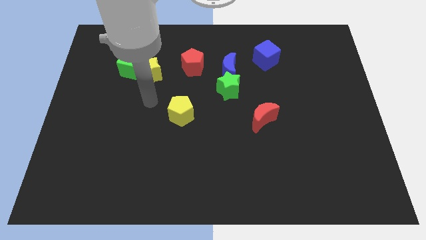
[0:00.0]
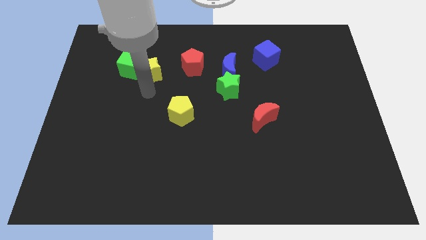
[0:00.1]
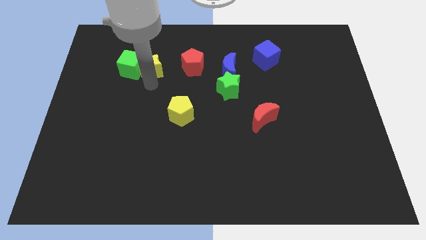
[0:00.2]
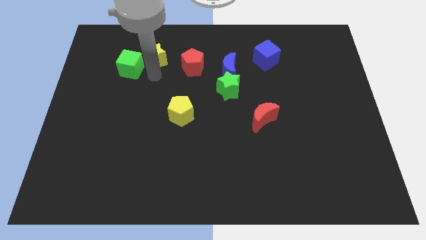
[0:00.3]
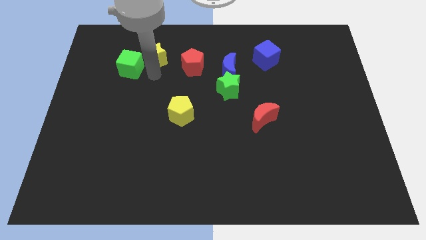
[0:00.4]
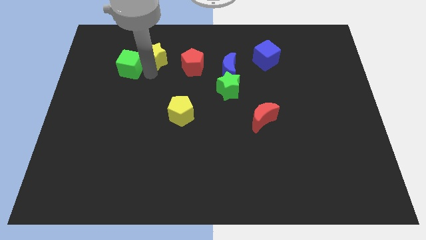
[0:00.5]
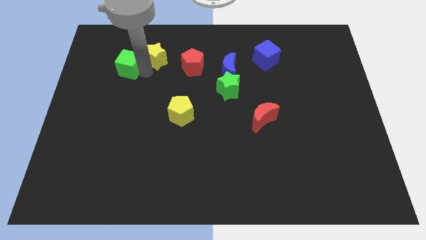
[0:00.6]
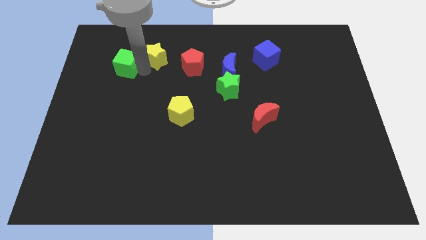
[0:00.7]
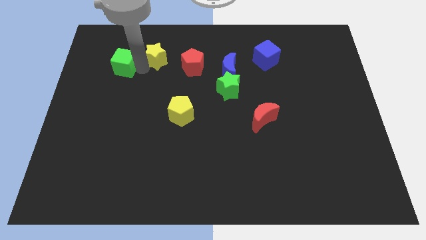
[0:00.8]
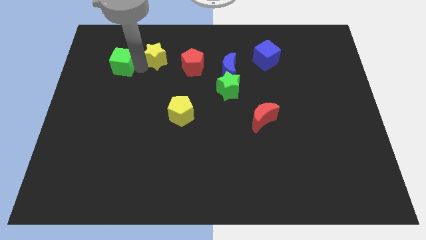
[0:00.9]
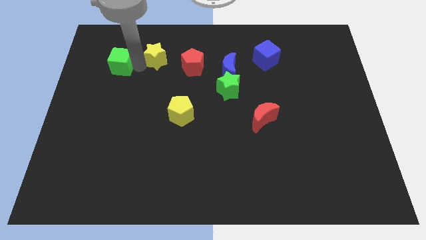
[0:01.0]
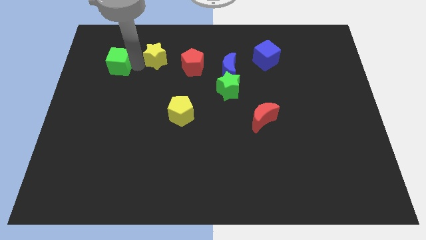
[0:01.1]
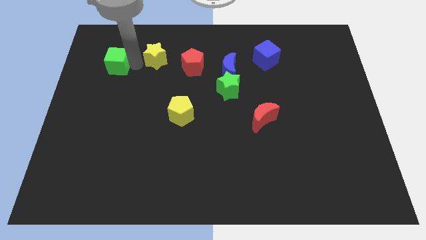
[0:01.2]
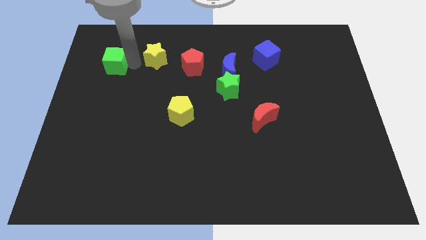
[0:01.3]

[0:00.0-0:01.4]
separate the green cube from the yellow star

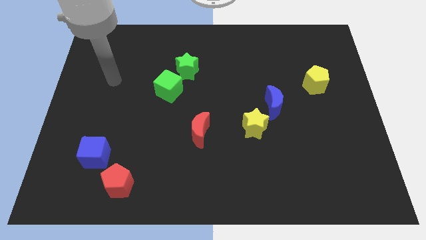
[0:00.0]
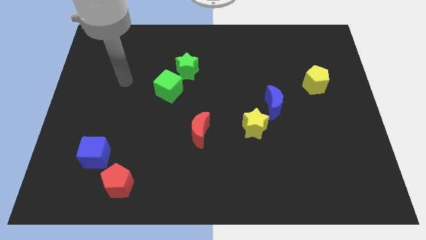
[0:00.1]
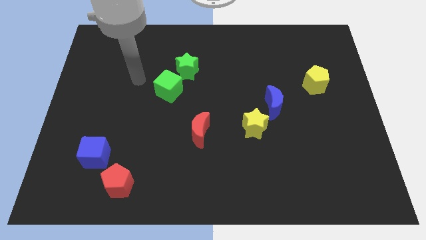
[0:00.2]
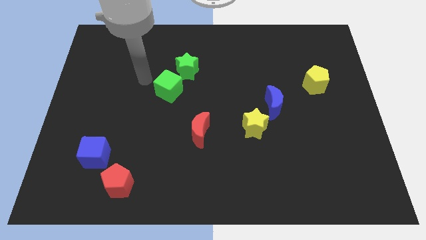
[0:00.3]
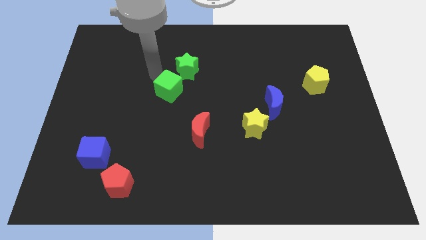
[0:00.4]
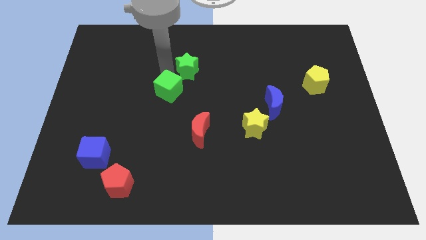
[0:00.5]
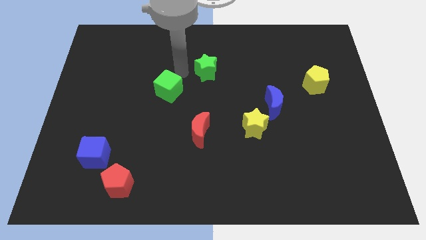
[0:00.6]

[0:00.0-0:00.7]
pull the green cube apart from the green star

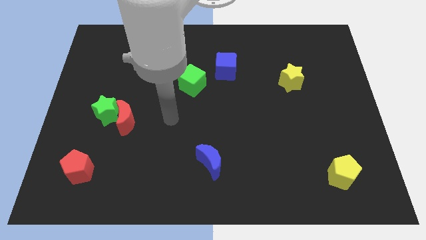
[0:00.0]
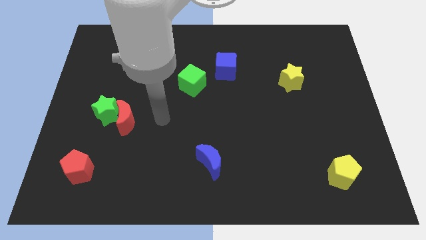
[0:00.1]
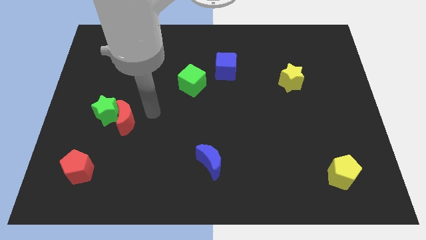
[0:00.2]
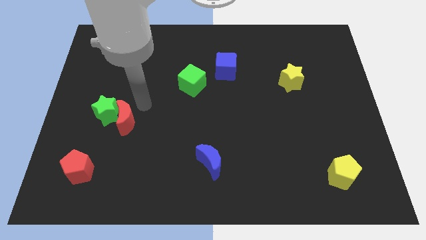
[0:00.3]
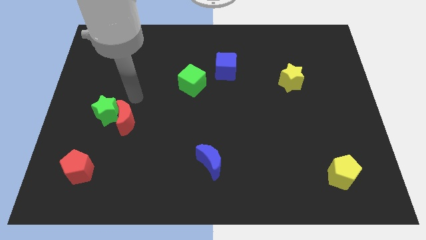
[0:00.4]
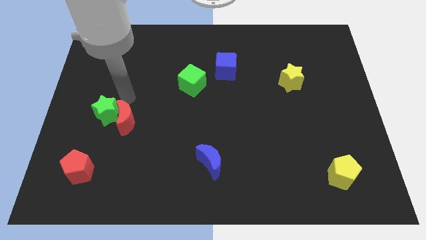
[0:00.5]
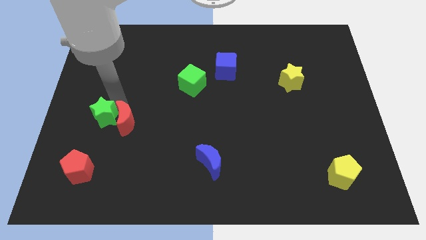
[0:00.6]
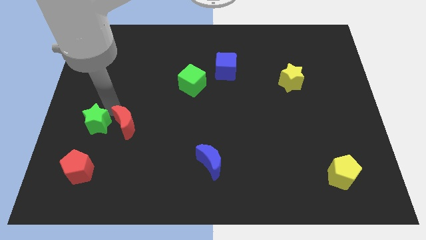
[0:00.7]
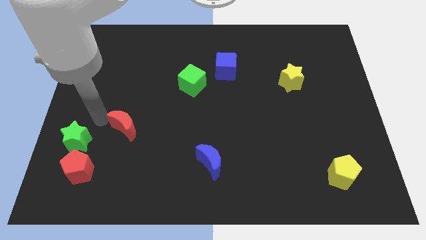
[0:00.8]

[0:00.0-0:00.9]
move the red moon away from the green star

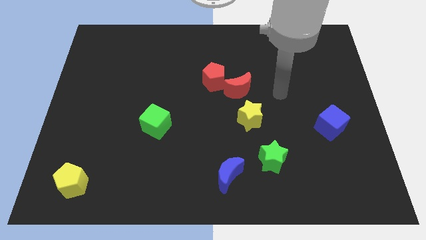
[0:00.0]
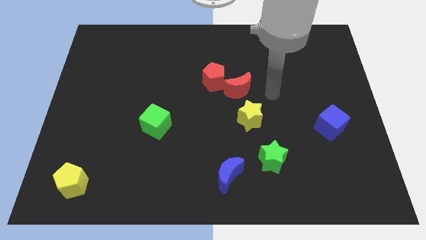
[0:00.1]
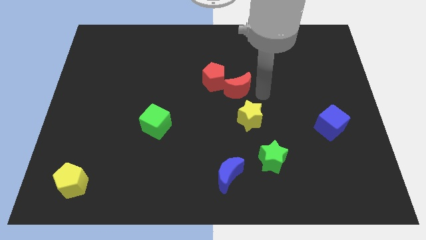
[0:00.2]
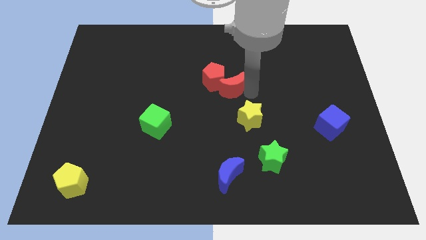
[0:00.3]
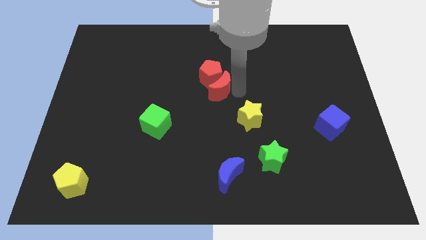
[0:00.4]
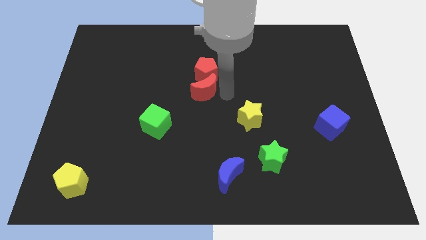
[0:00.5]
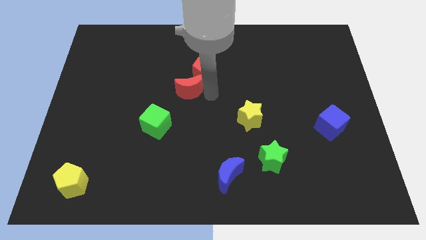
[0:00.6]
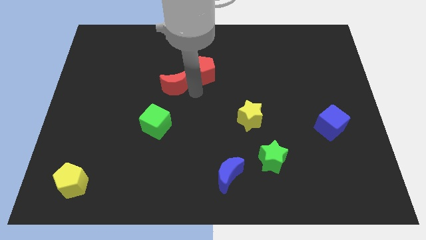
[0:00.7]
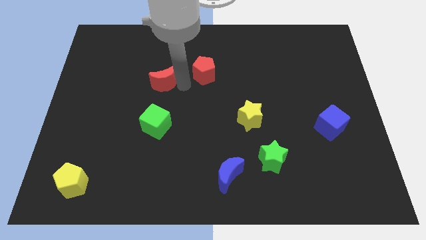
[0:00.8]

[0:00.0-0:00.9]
pull the red pentagon apart from the red moon

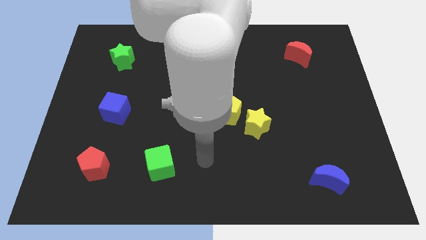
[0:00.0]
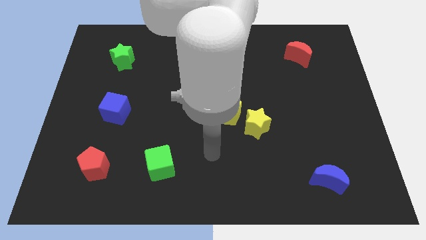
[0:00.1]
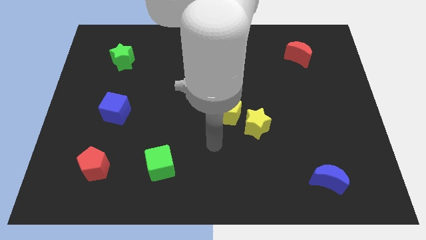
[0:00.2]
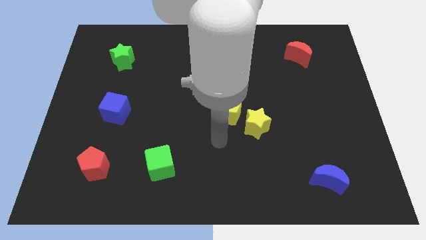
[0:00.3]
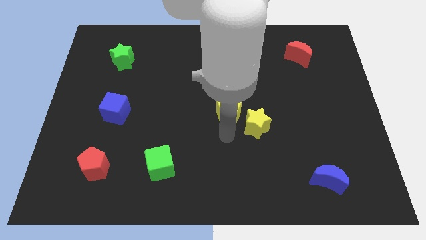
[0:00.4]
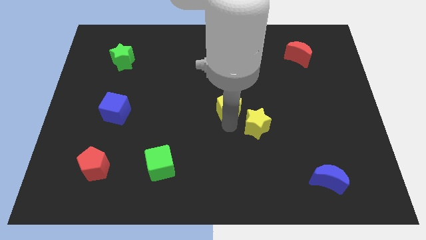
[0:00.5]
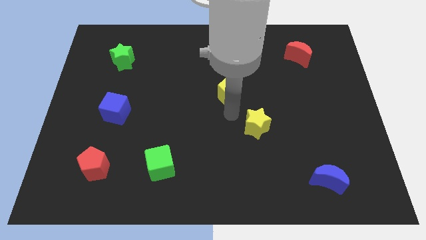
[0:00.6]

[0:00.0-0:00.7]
pull the yellow star apart from the yellow pentagon

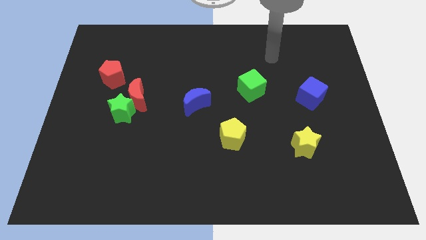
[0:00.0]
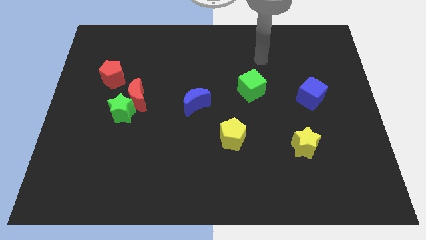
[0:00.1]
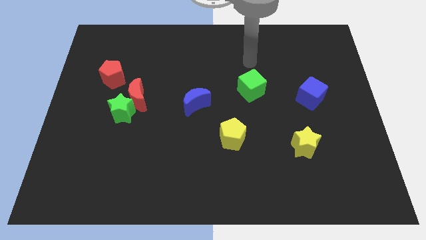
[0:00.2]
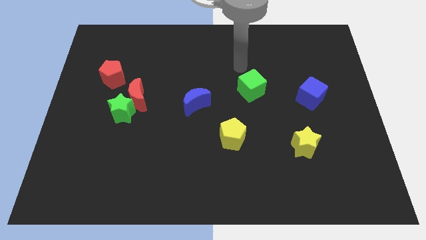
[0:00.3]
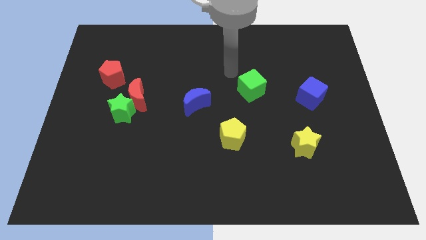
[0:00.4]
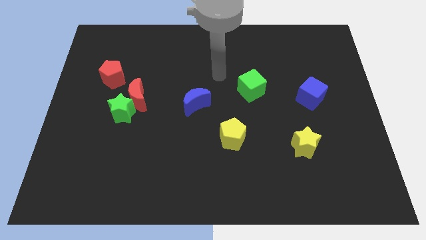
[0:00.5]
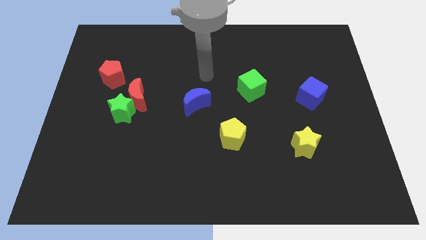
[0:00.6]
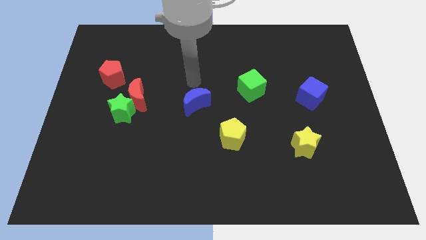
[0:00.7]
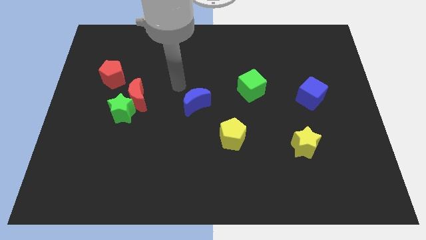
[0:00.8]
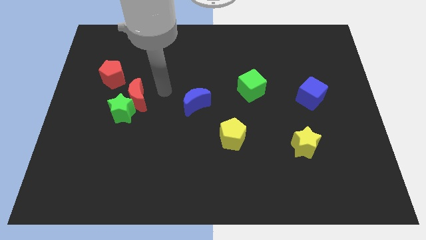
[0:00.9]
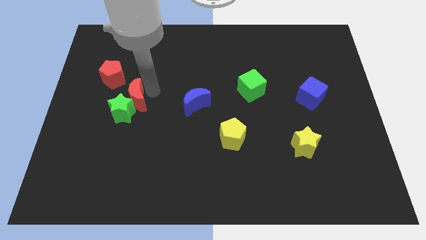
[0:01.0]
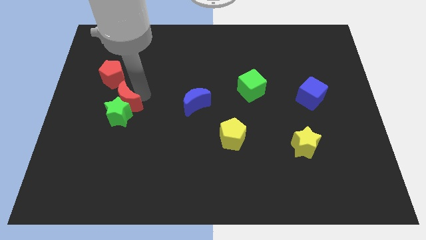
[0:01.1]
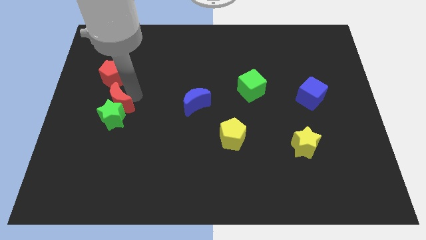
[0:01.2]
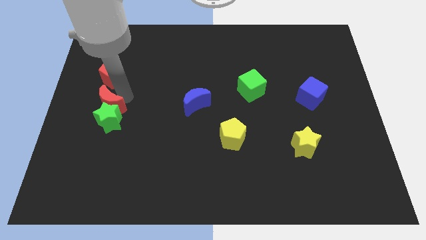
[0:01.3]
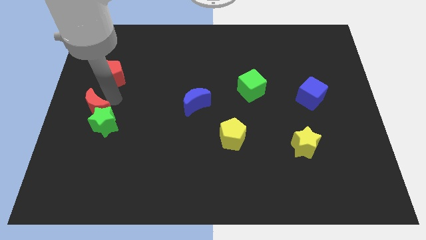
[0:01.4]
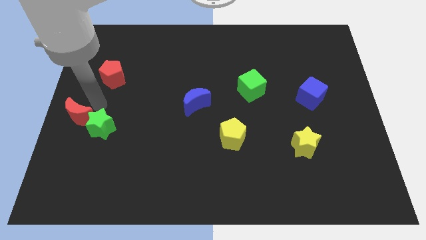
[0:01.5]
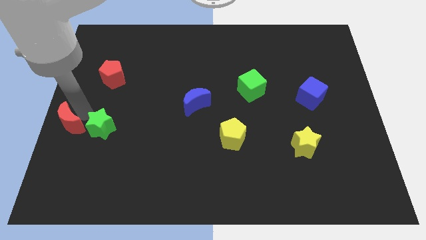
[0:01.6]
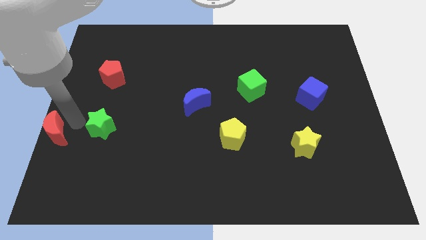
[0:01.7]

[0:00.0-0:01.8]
move the green star away from the red moon

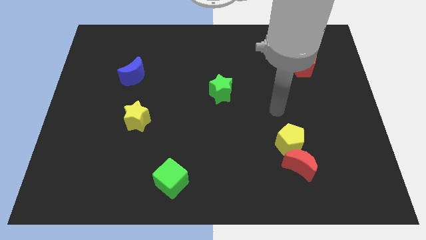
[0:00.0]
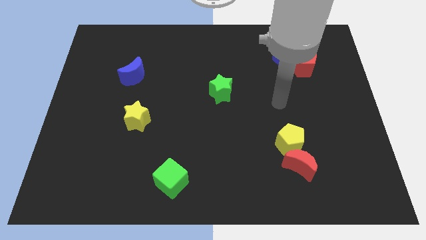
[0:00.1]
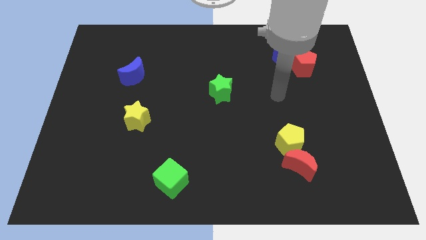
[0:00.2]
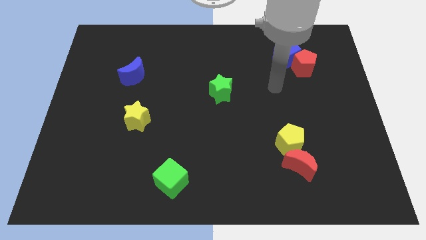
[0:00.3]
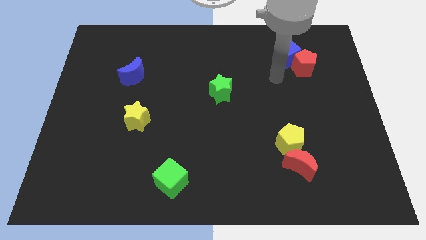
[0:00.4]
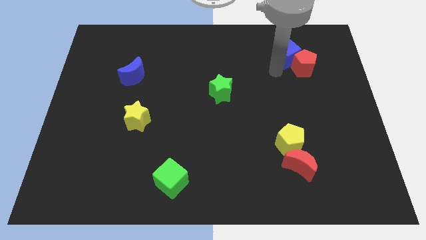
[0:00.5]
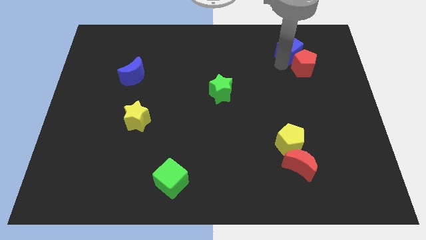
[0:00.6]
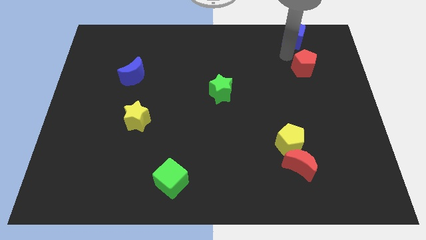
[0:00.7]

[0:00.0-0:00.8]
pull the red pentagon apart from the blue cube

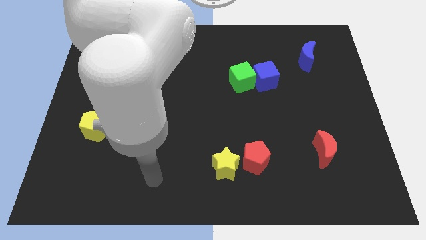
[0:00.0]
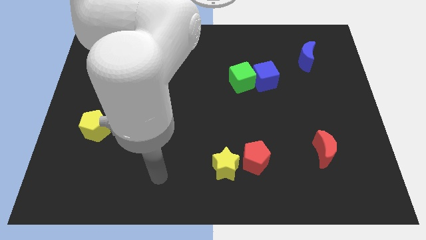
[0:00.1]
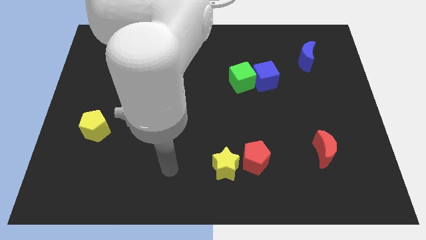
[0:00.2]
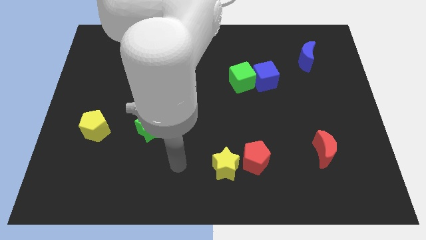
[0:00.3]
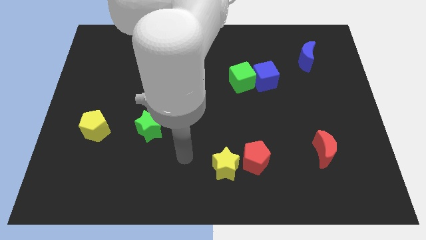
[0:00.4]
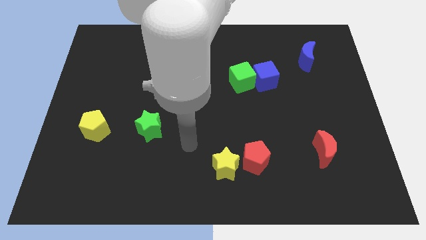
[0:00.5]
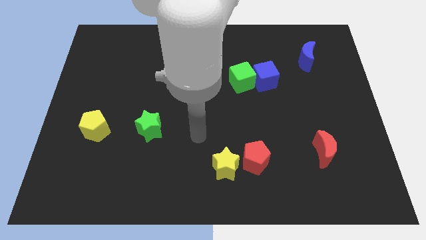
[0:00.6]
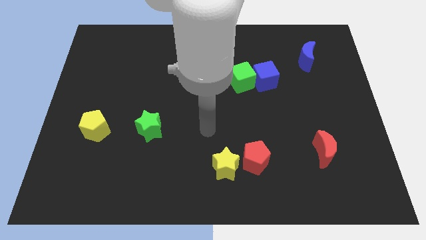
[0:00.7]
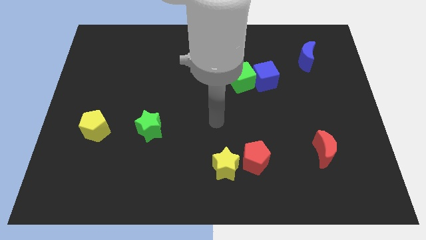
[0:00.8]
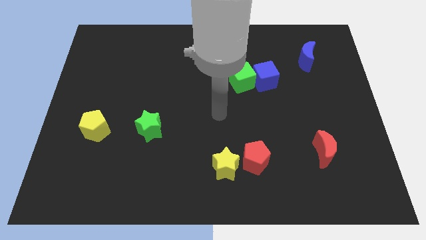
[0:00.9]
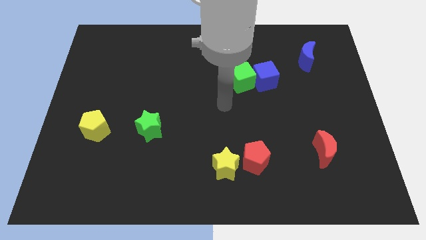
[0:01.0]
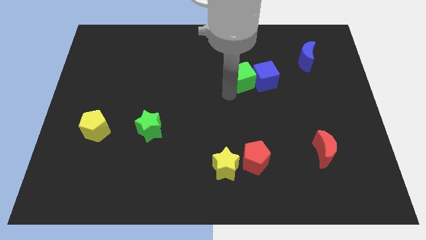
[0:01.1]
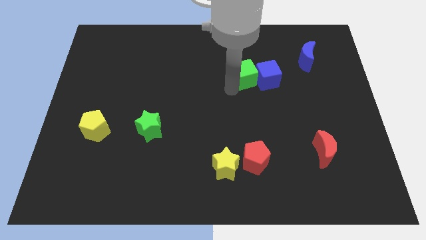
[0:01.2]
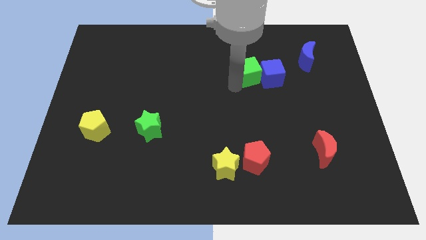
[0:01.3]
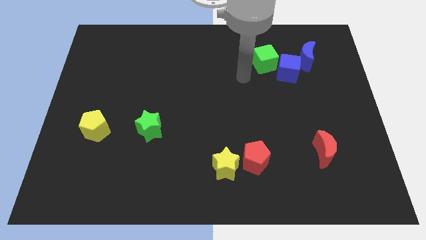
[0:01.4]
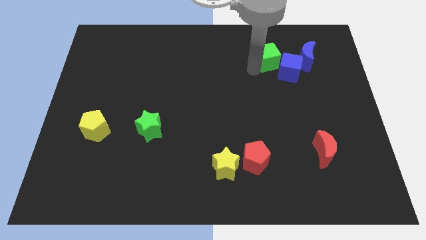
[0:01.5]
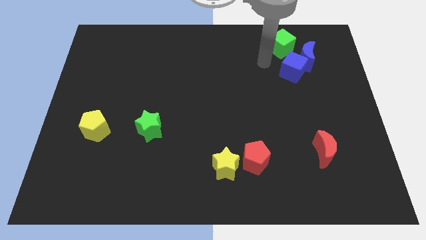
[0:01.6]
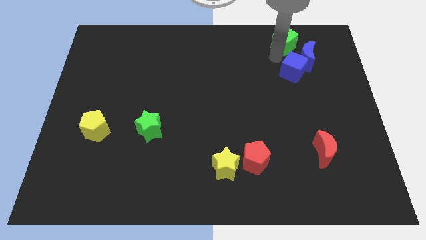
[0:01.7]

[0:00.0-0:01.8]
move the blue cube away from the green cube

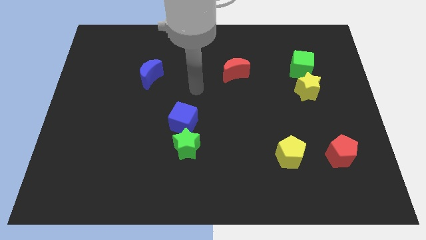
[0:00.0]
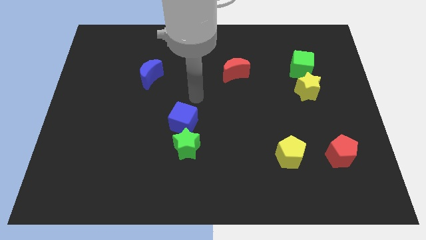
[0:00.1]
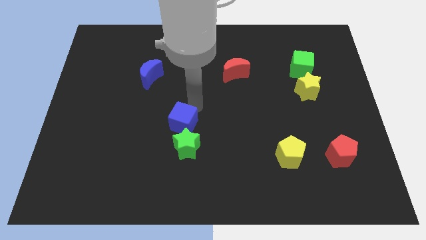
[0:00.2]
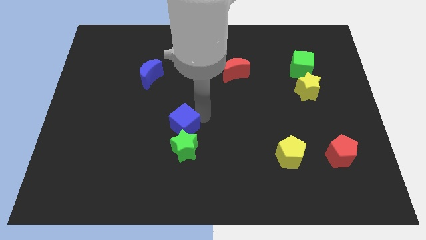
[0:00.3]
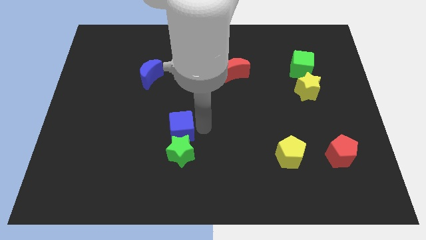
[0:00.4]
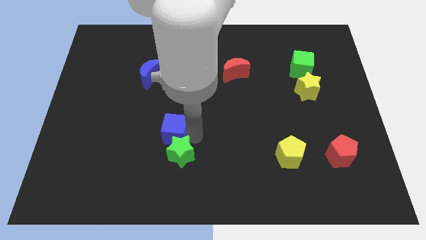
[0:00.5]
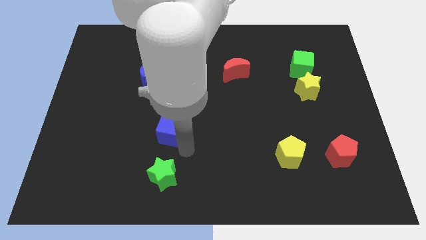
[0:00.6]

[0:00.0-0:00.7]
pull the blue cube apart from the green star
